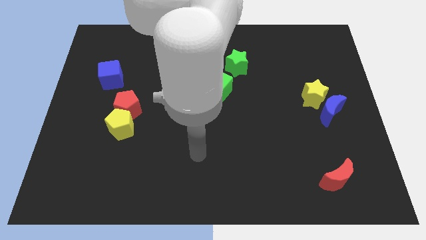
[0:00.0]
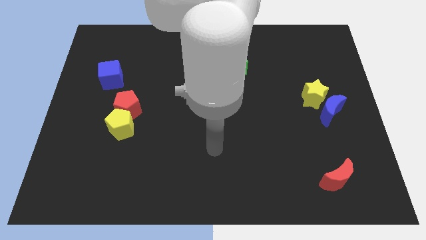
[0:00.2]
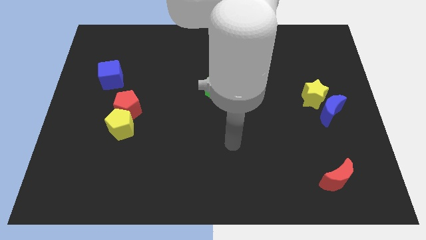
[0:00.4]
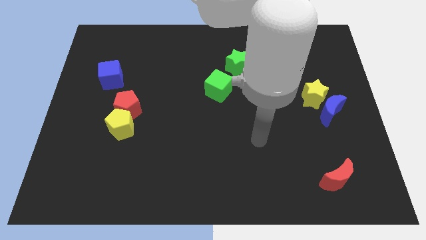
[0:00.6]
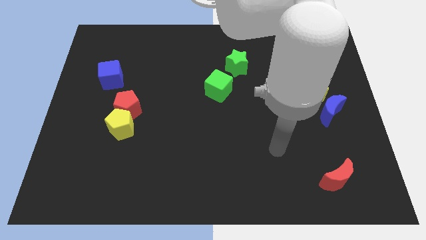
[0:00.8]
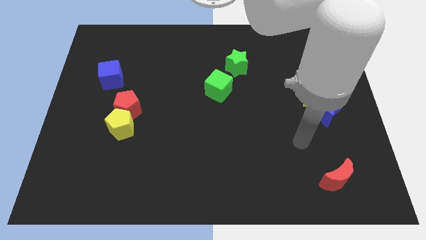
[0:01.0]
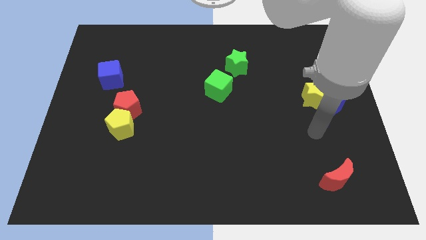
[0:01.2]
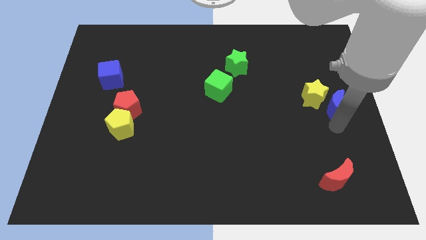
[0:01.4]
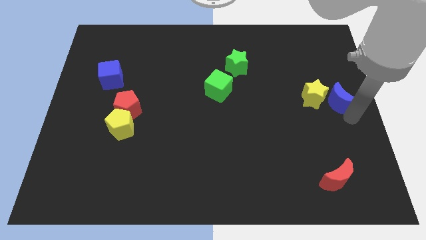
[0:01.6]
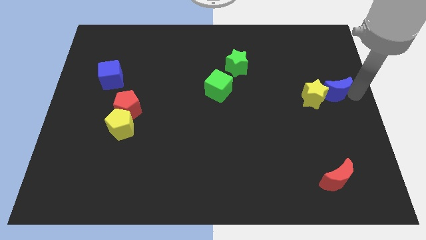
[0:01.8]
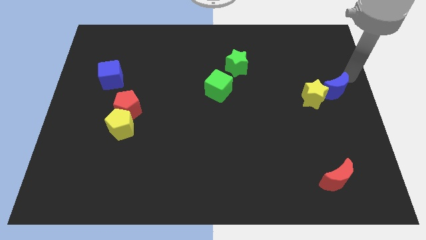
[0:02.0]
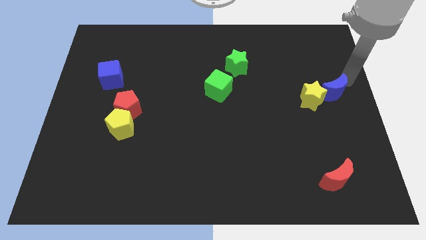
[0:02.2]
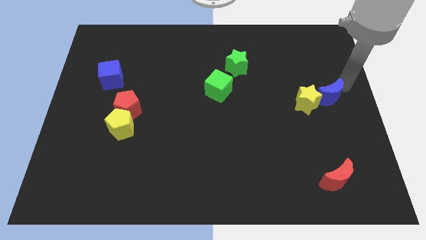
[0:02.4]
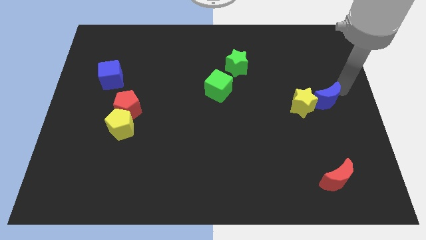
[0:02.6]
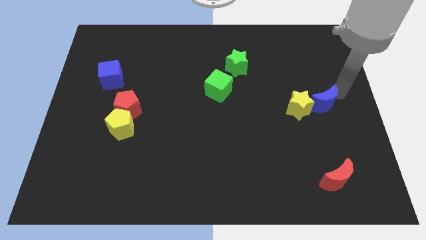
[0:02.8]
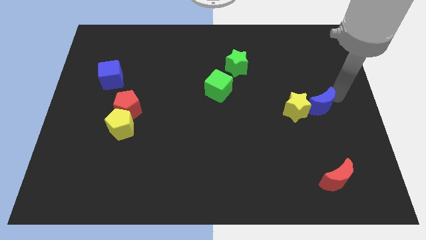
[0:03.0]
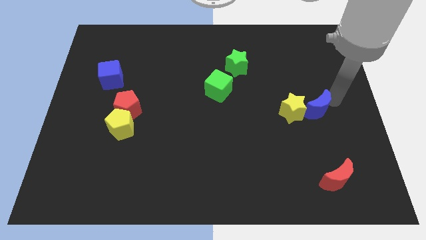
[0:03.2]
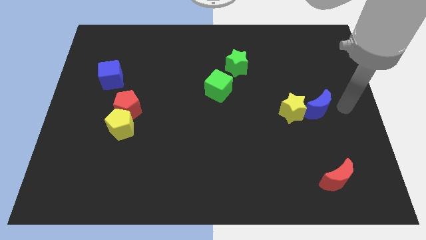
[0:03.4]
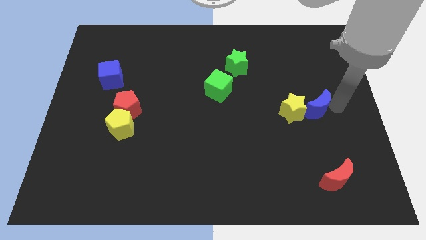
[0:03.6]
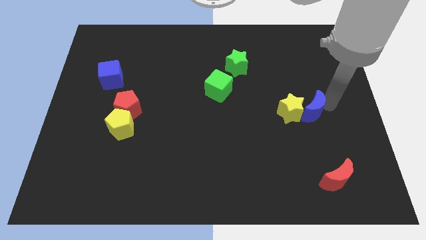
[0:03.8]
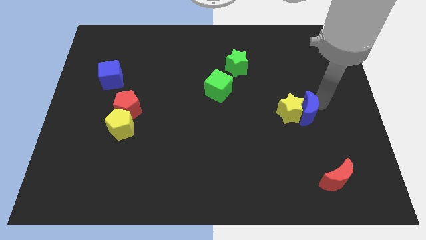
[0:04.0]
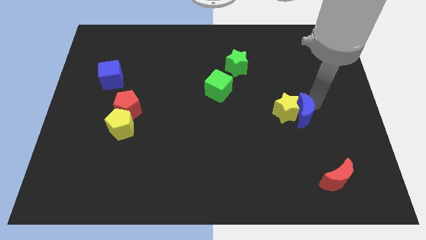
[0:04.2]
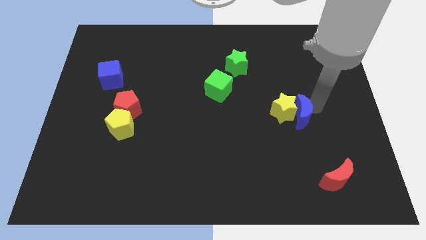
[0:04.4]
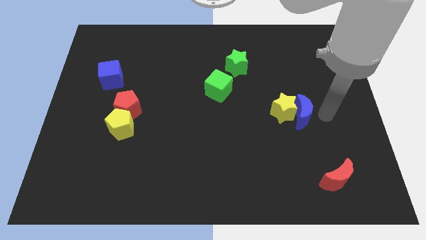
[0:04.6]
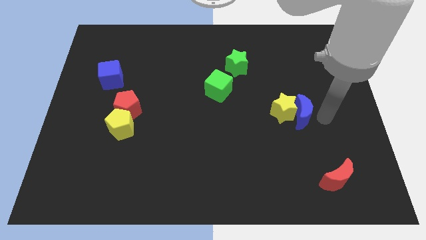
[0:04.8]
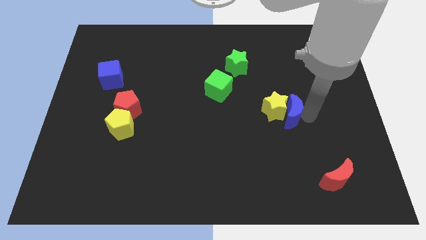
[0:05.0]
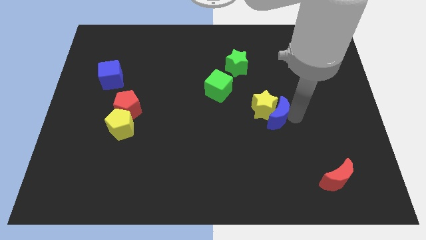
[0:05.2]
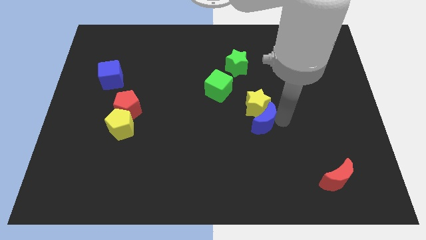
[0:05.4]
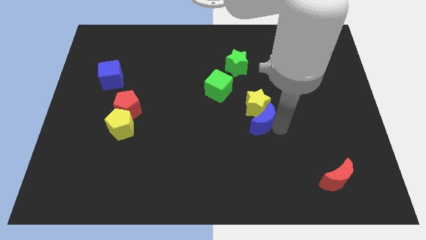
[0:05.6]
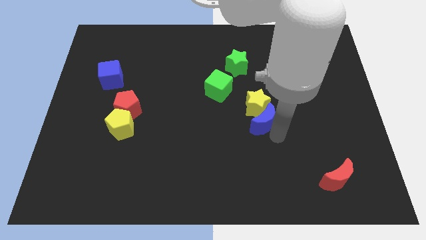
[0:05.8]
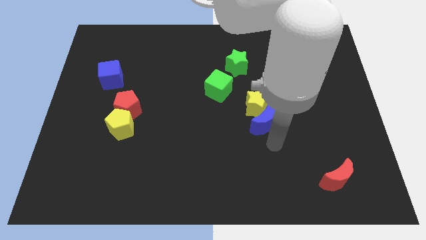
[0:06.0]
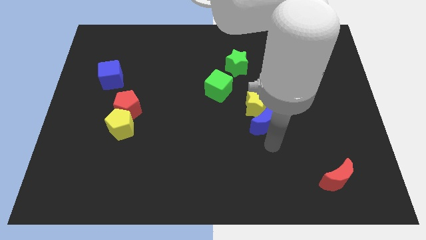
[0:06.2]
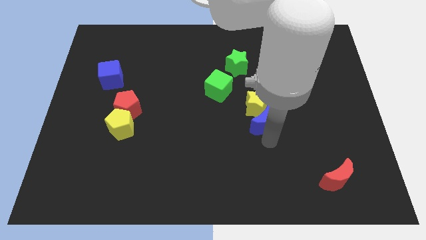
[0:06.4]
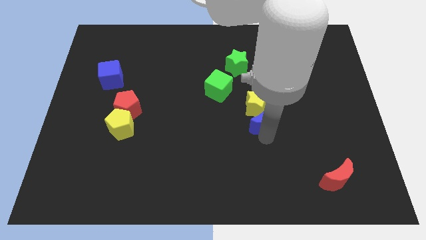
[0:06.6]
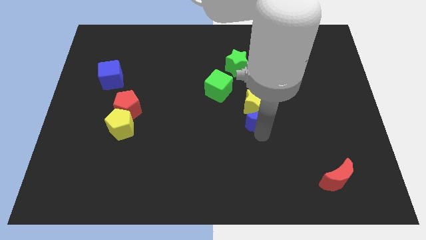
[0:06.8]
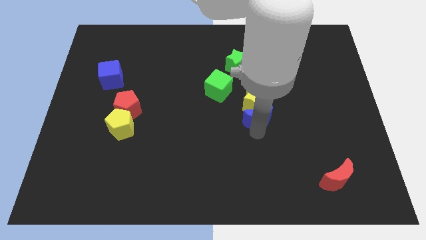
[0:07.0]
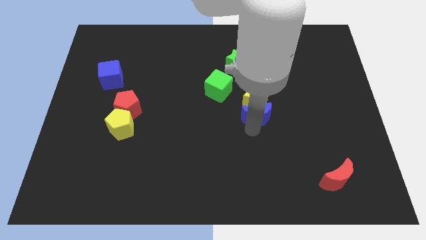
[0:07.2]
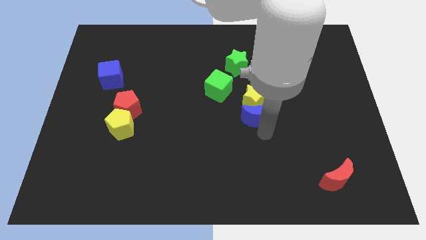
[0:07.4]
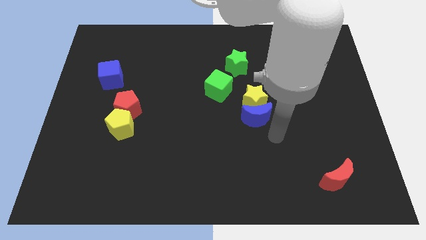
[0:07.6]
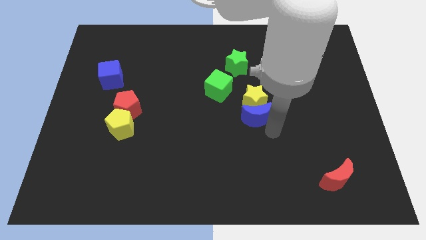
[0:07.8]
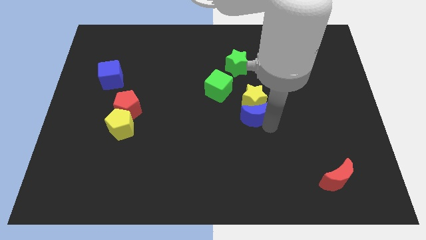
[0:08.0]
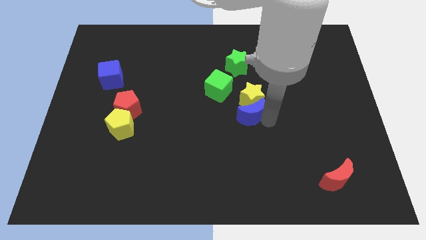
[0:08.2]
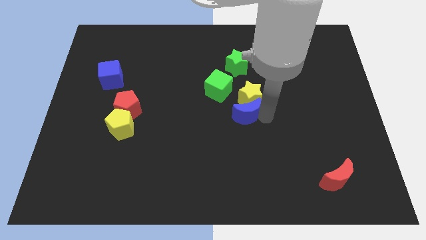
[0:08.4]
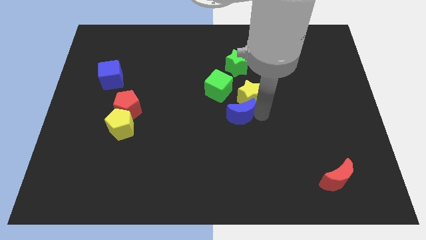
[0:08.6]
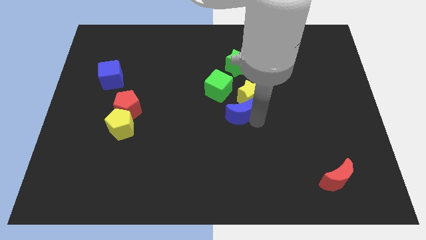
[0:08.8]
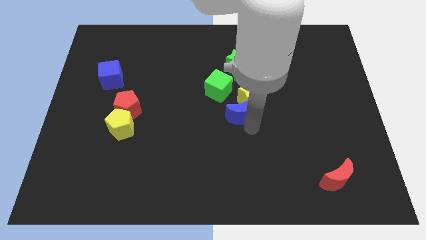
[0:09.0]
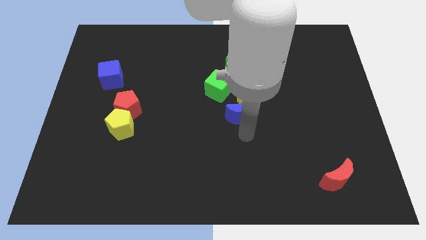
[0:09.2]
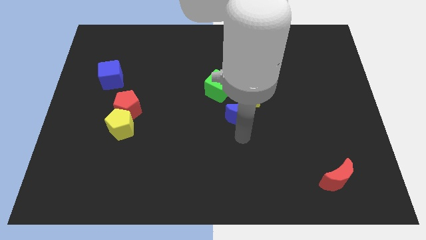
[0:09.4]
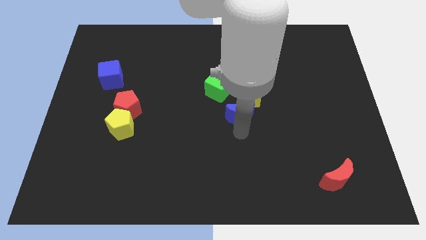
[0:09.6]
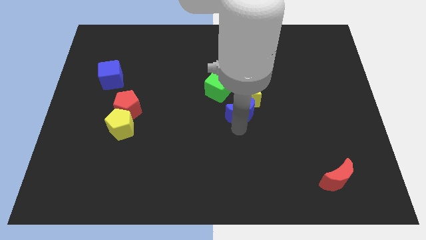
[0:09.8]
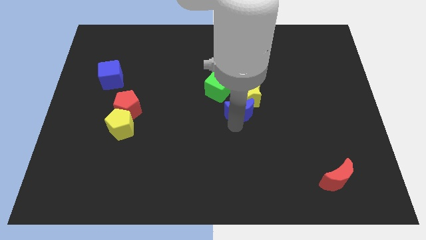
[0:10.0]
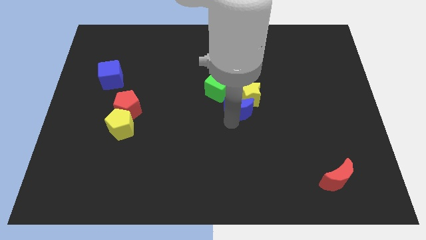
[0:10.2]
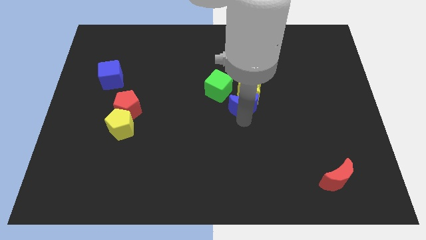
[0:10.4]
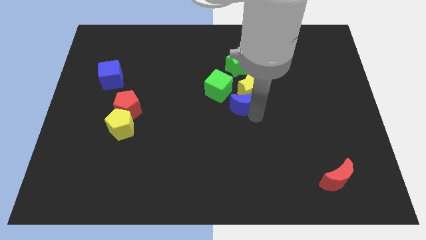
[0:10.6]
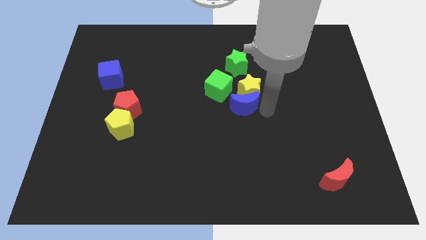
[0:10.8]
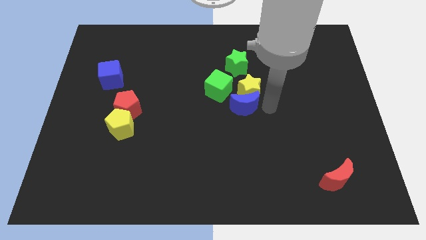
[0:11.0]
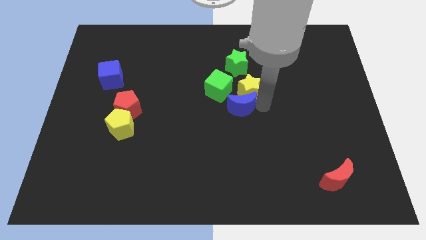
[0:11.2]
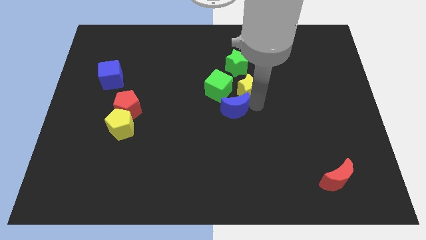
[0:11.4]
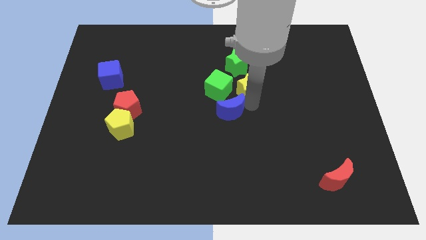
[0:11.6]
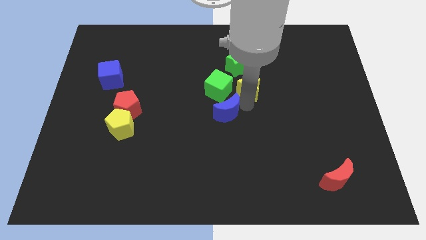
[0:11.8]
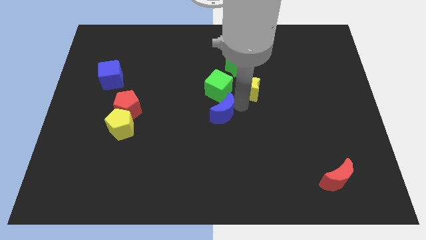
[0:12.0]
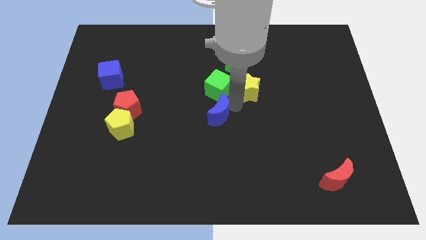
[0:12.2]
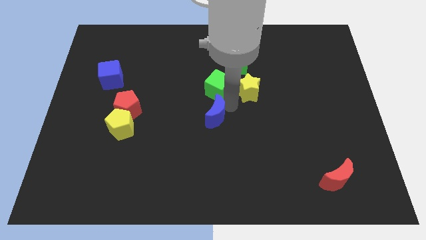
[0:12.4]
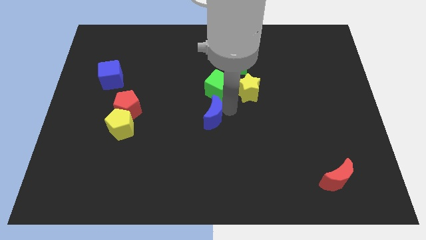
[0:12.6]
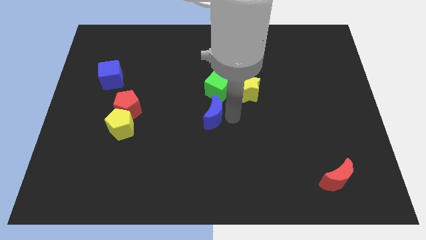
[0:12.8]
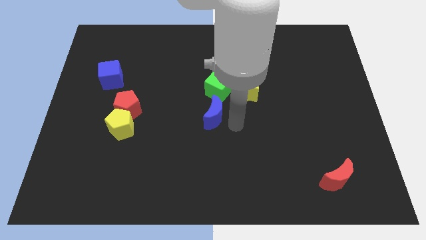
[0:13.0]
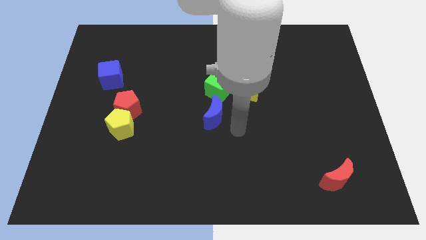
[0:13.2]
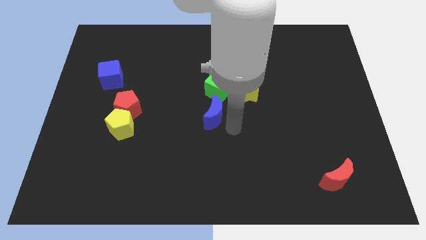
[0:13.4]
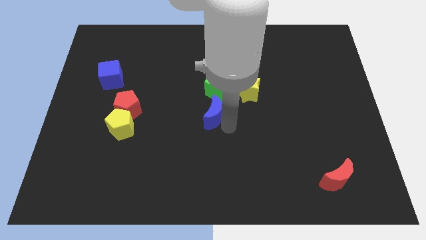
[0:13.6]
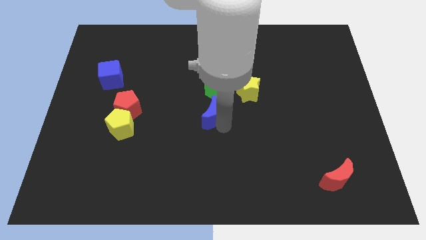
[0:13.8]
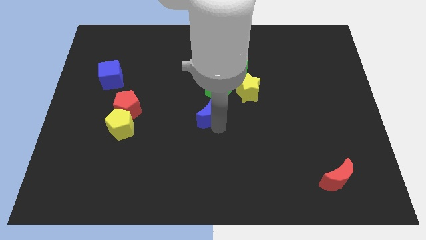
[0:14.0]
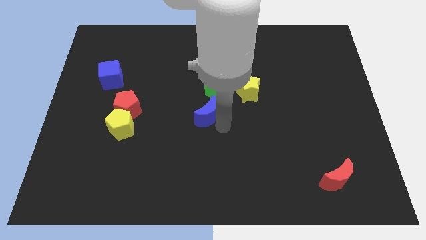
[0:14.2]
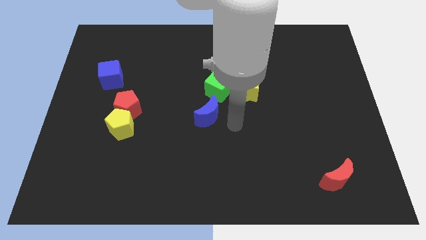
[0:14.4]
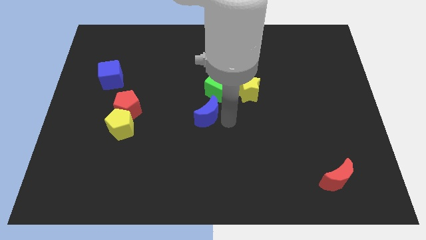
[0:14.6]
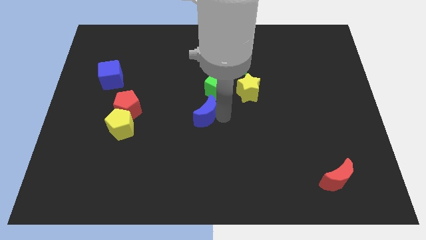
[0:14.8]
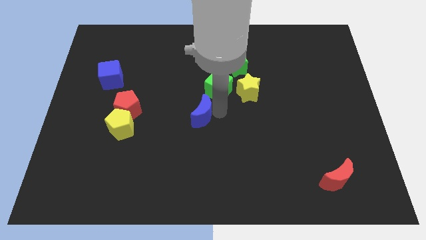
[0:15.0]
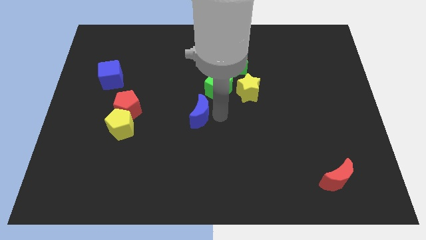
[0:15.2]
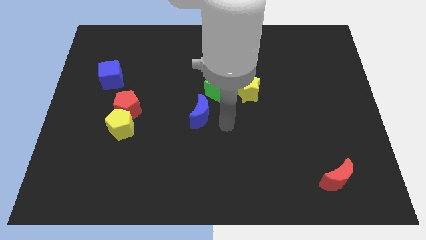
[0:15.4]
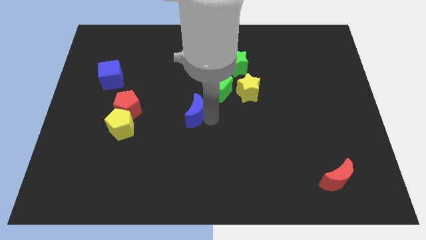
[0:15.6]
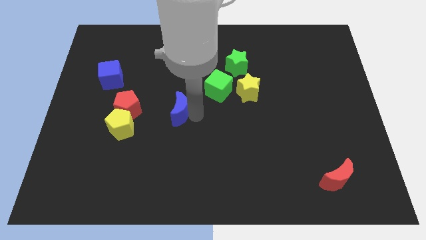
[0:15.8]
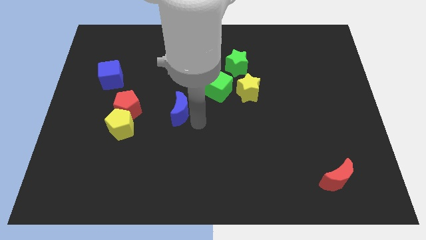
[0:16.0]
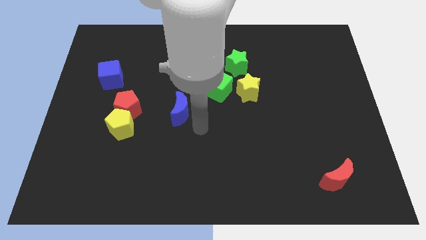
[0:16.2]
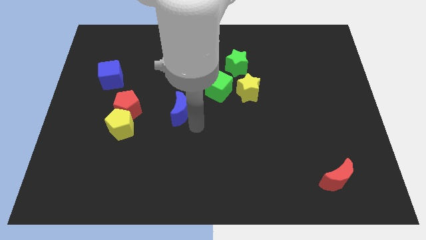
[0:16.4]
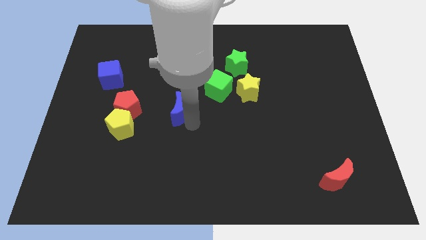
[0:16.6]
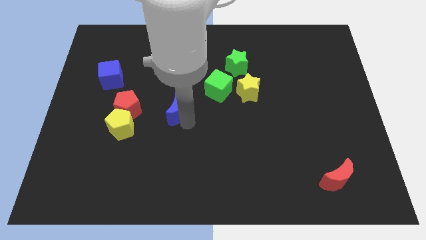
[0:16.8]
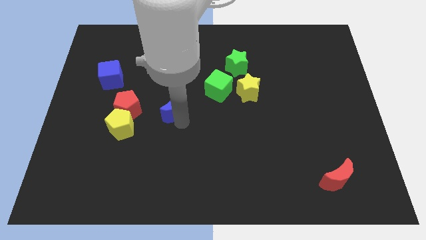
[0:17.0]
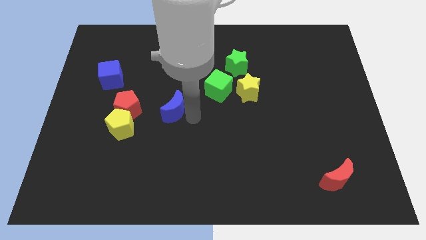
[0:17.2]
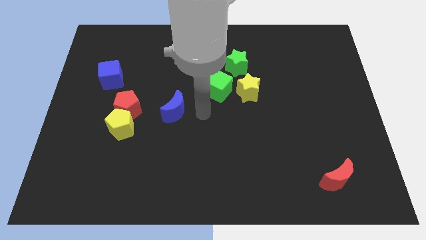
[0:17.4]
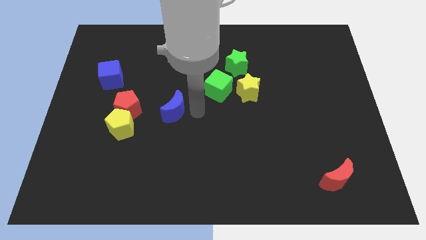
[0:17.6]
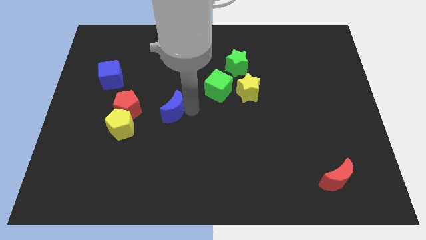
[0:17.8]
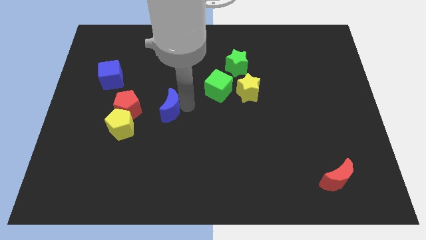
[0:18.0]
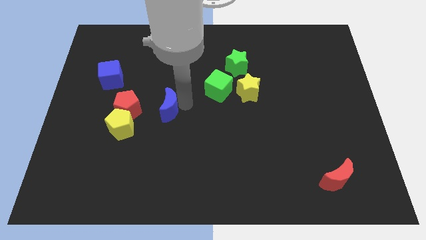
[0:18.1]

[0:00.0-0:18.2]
put the blue moon diagonally up and to the right of the yellow pentagon
